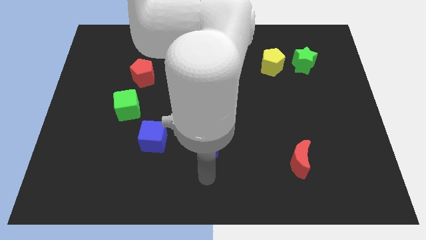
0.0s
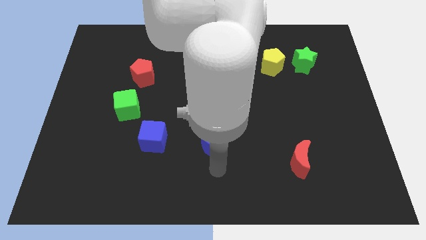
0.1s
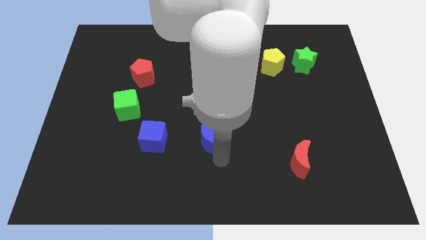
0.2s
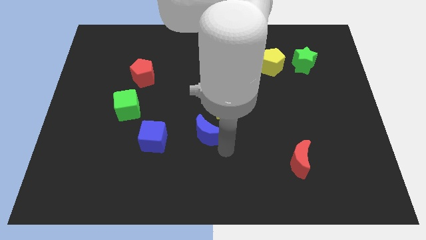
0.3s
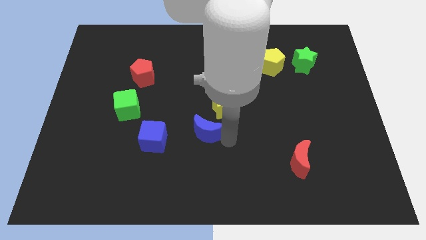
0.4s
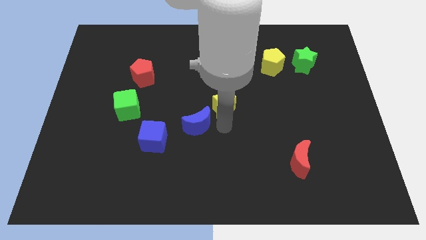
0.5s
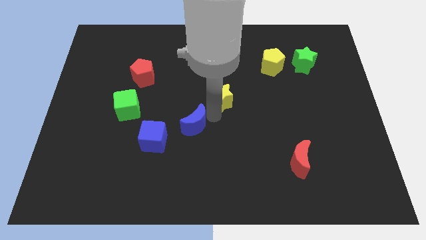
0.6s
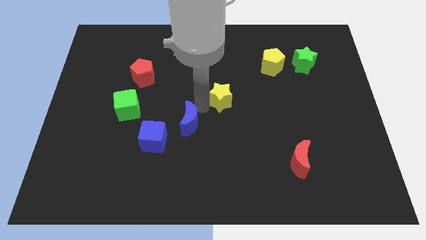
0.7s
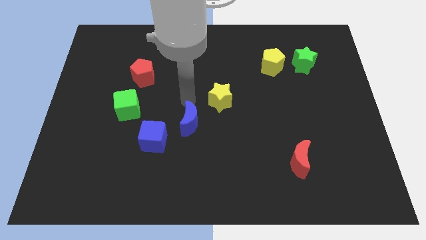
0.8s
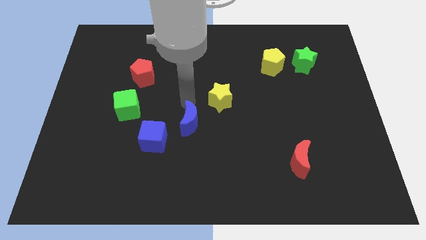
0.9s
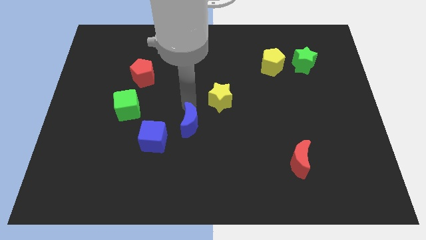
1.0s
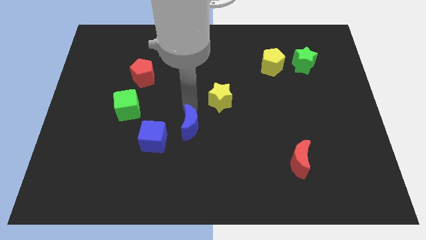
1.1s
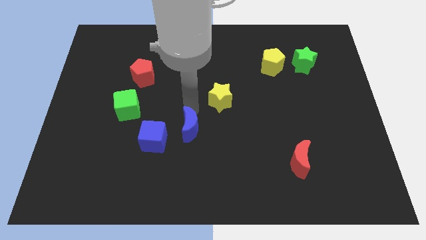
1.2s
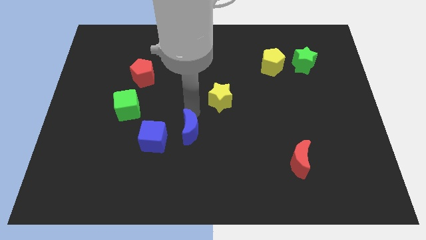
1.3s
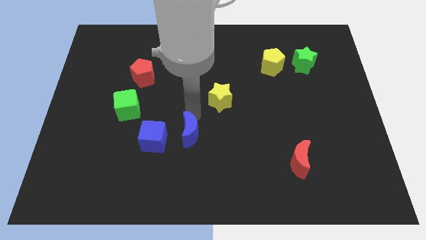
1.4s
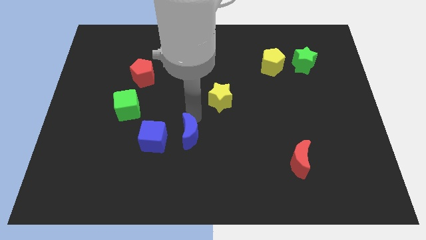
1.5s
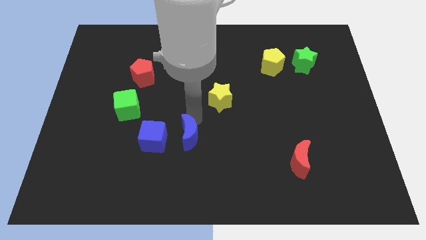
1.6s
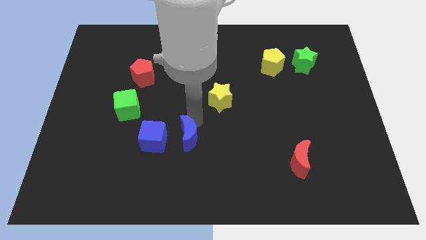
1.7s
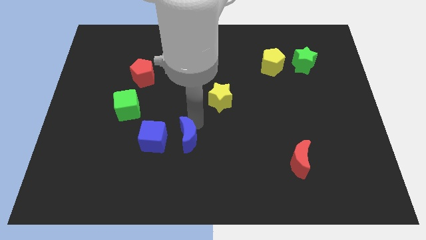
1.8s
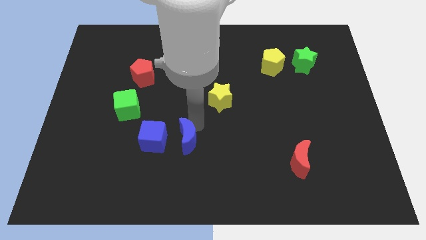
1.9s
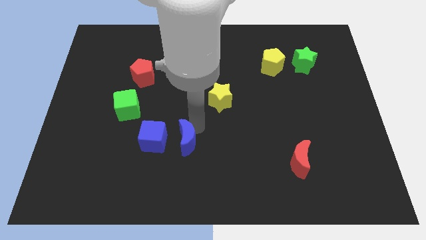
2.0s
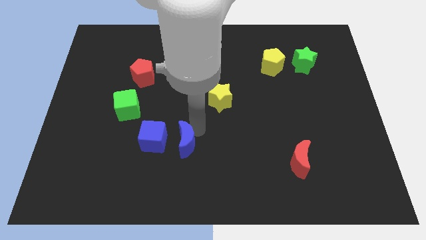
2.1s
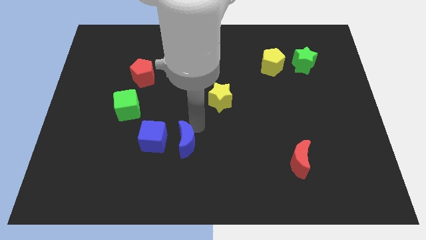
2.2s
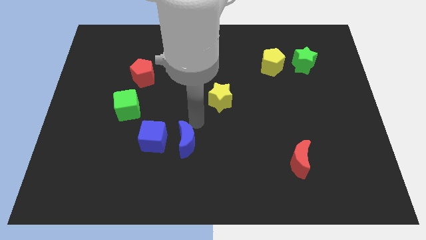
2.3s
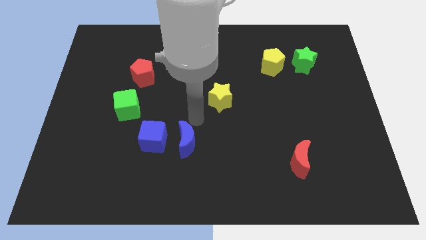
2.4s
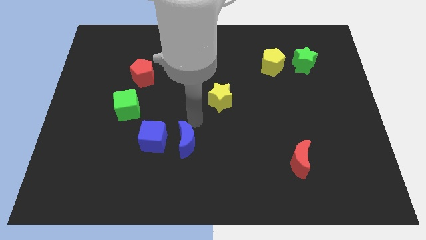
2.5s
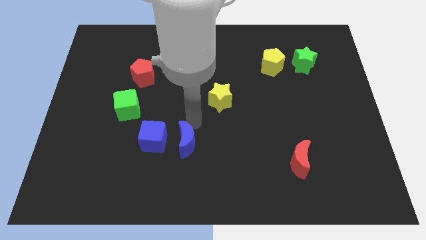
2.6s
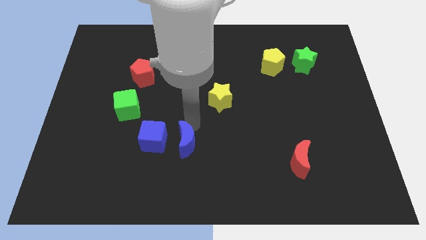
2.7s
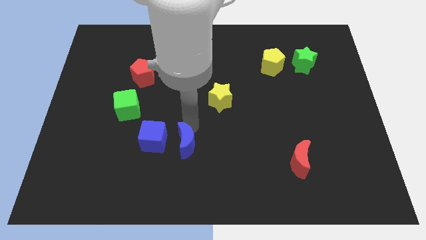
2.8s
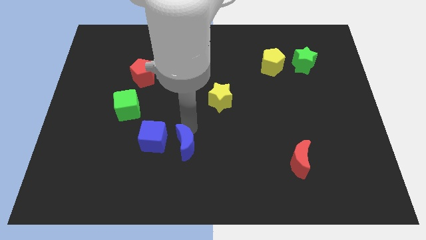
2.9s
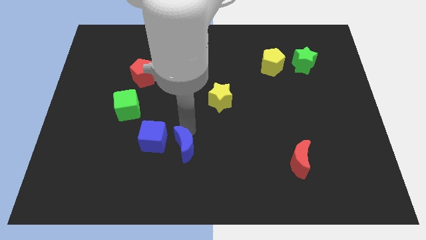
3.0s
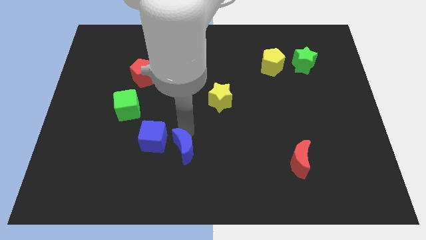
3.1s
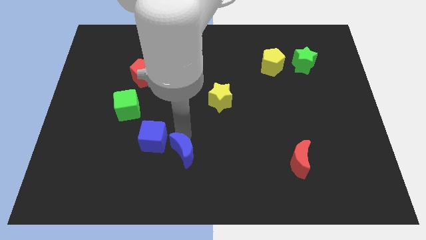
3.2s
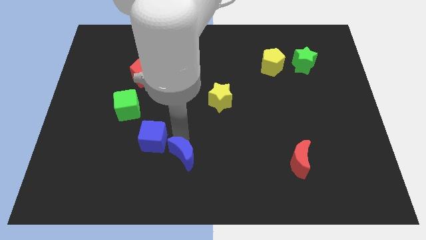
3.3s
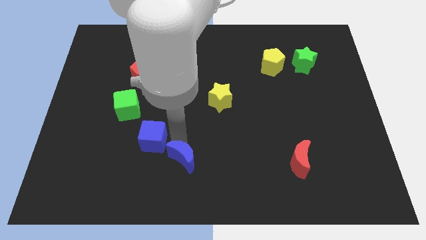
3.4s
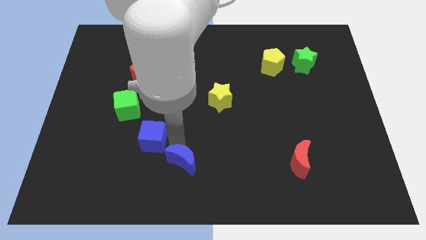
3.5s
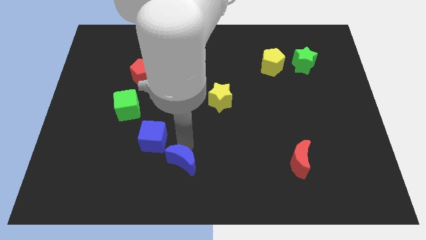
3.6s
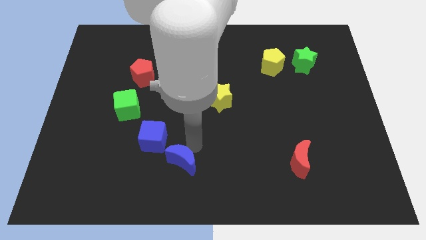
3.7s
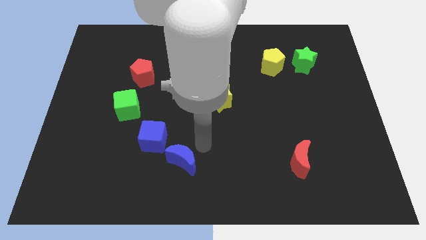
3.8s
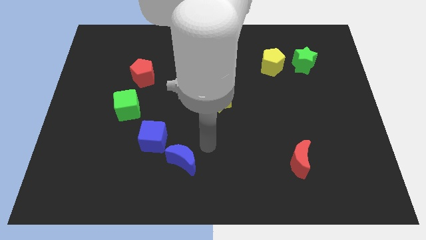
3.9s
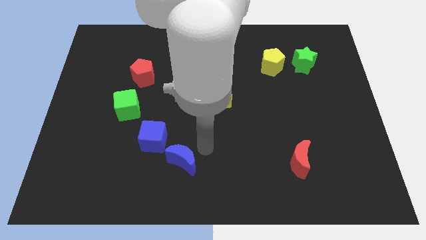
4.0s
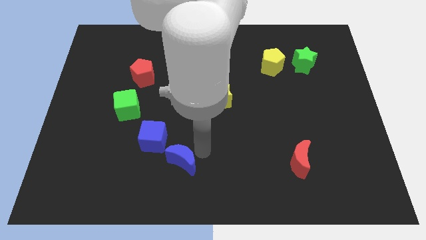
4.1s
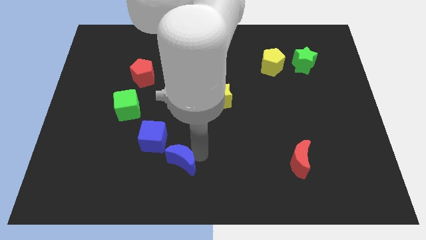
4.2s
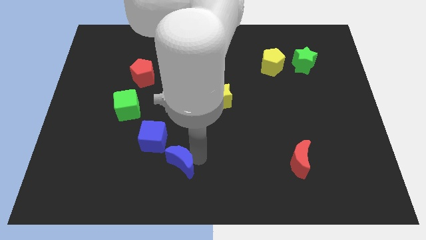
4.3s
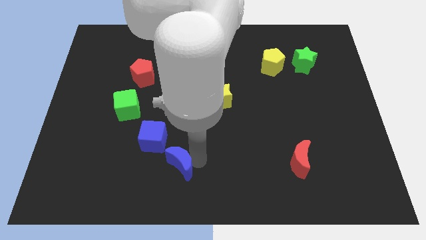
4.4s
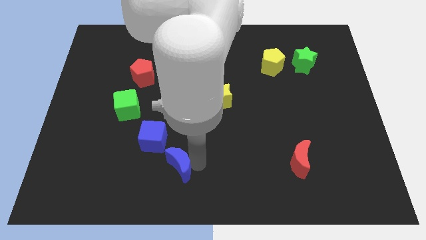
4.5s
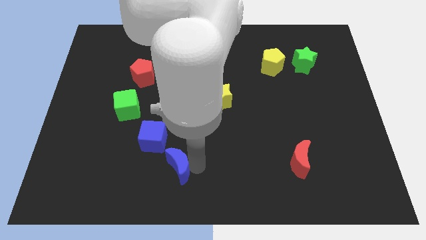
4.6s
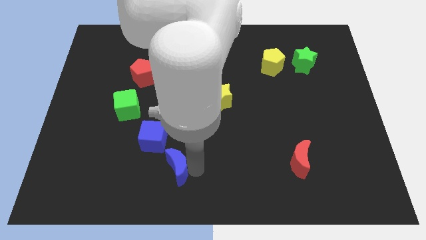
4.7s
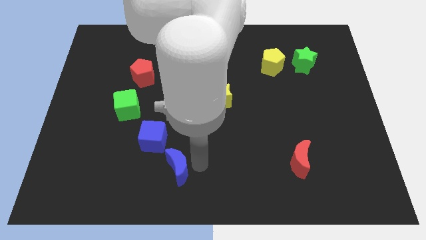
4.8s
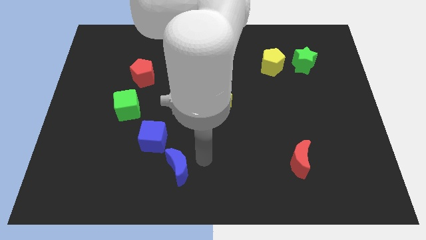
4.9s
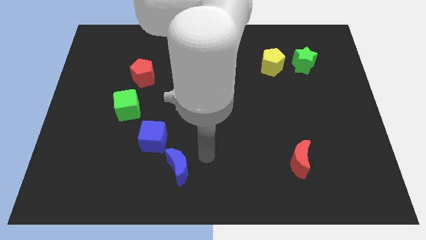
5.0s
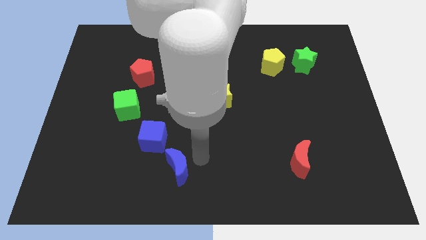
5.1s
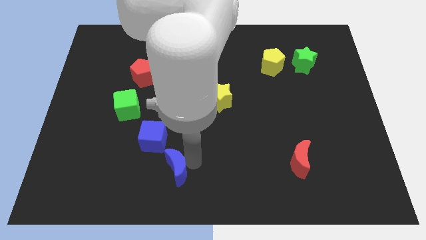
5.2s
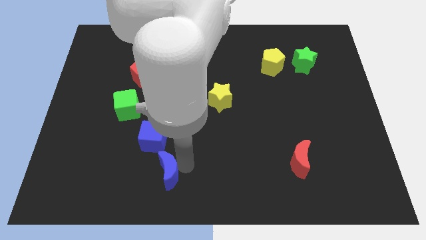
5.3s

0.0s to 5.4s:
move the blue moon below the blue cube

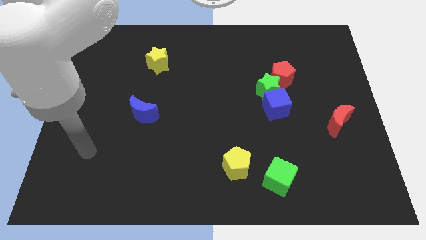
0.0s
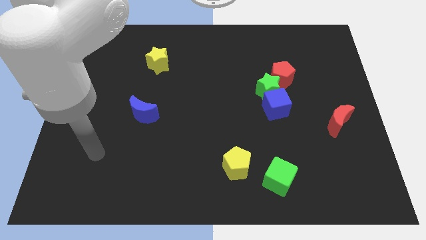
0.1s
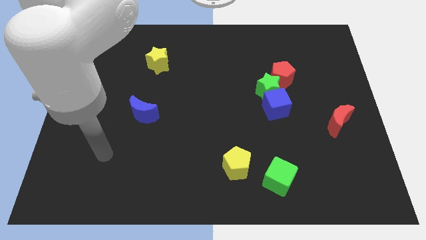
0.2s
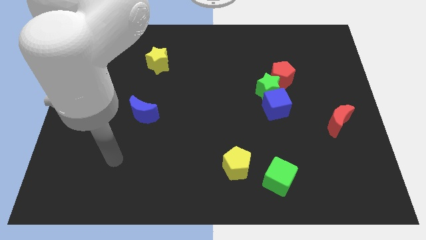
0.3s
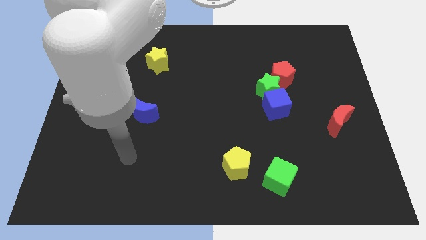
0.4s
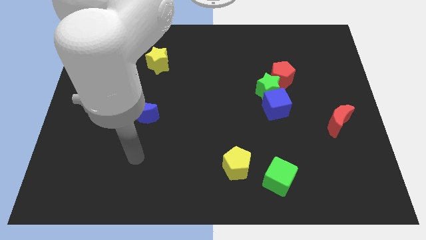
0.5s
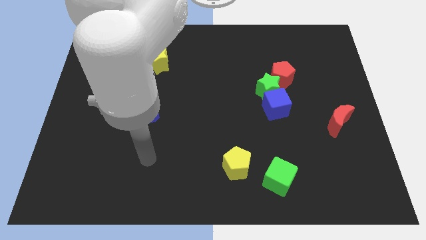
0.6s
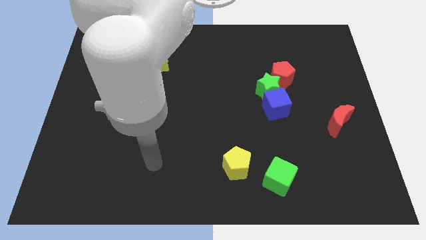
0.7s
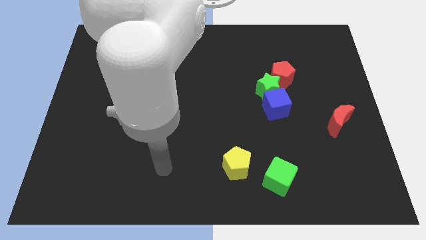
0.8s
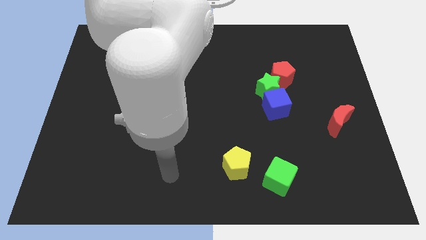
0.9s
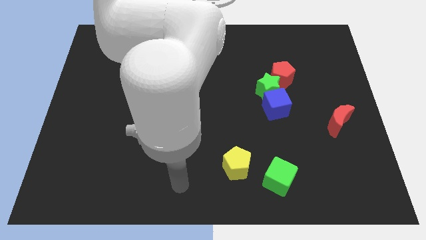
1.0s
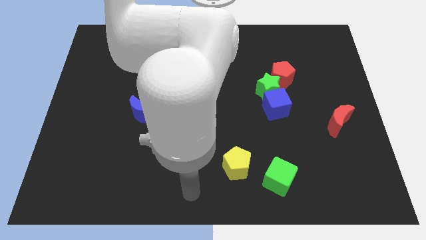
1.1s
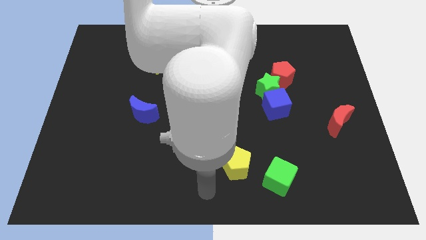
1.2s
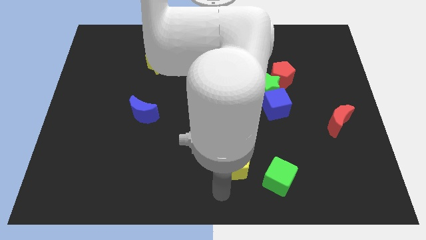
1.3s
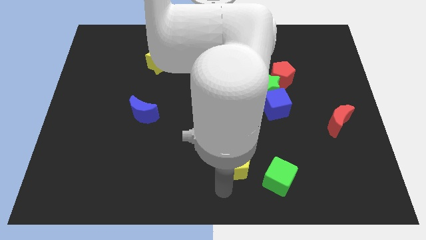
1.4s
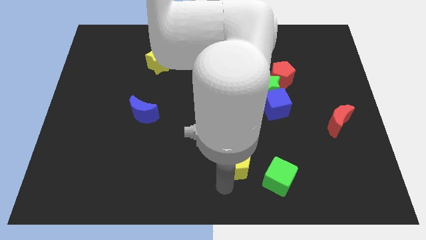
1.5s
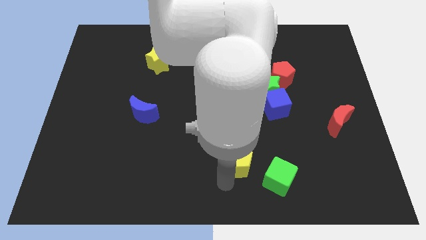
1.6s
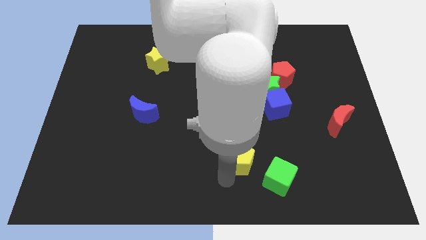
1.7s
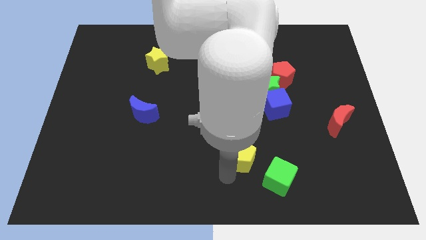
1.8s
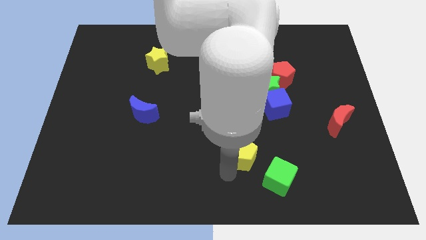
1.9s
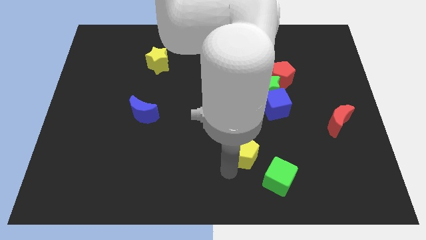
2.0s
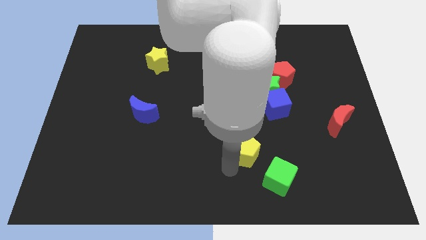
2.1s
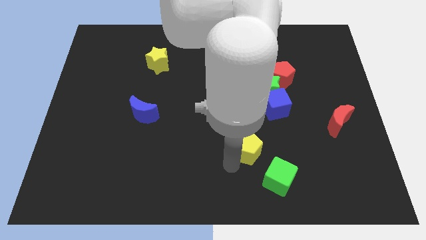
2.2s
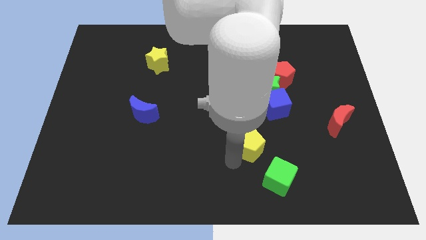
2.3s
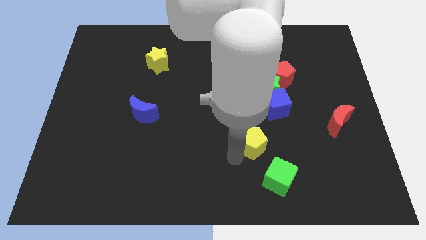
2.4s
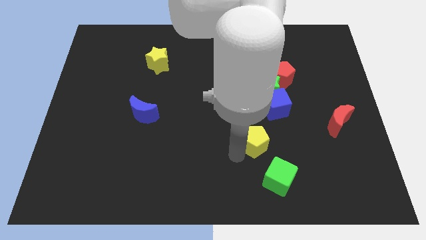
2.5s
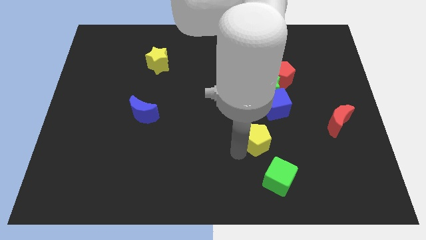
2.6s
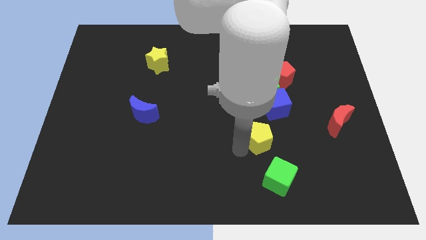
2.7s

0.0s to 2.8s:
move the yellow pentagon to the bottom side of the green star

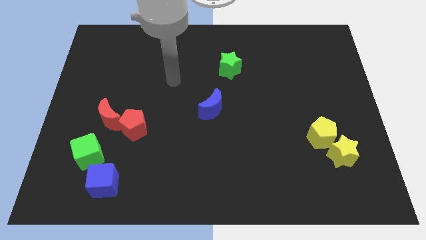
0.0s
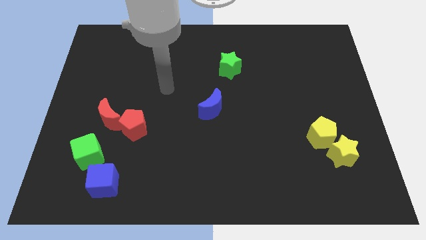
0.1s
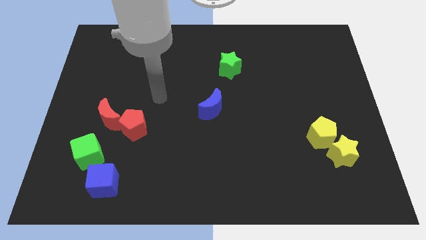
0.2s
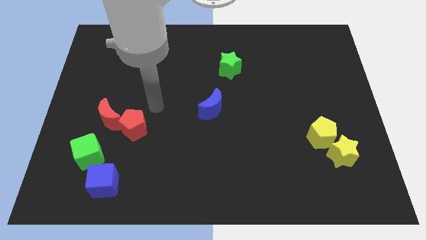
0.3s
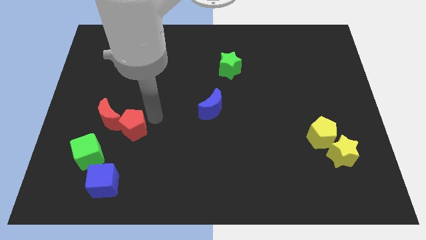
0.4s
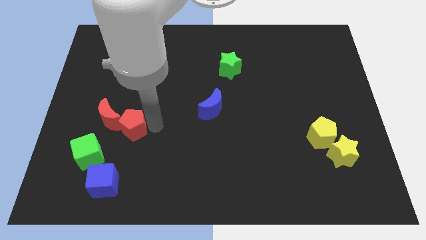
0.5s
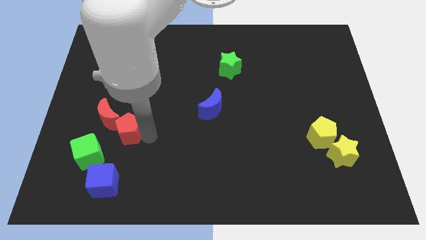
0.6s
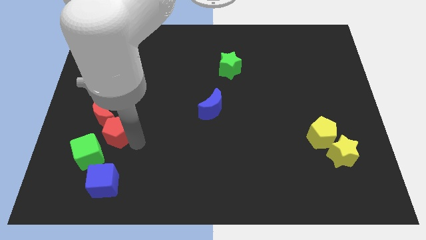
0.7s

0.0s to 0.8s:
put the green cube to the left side of the red pentagon
